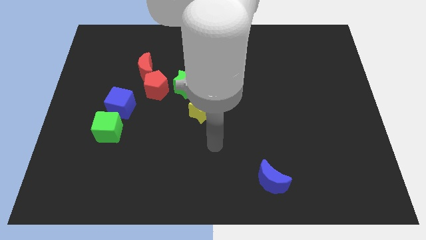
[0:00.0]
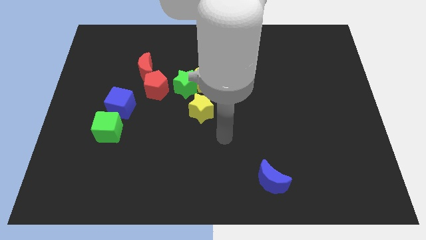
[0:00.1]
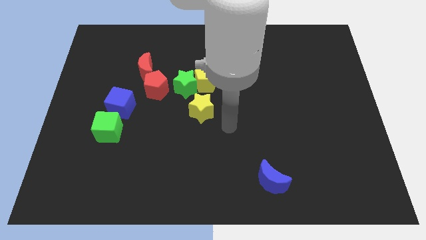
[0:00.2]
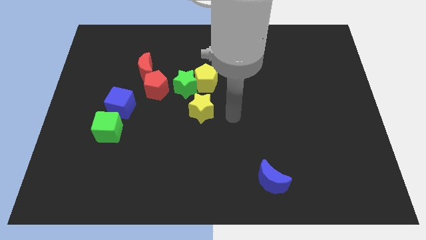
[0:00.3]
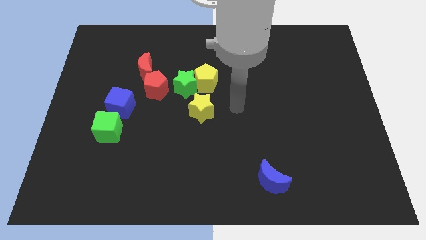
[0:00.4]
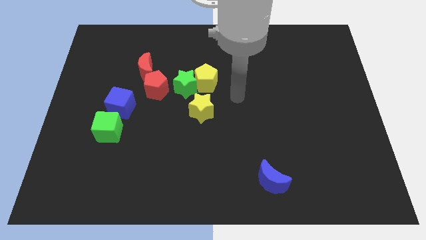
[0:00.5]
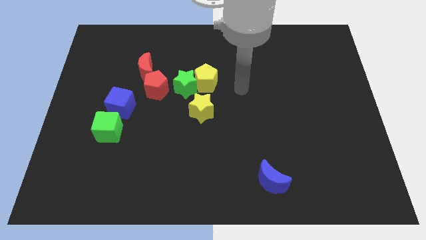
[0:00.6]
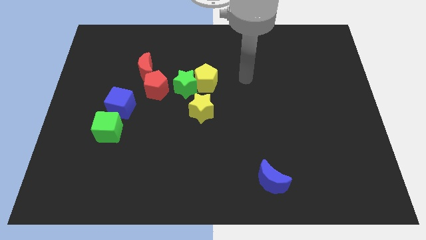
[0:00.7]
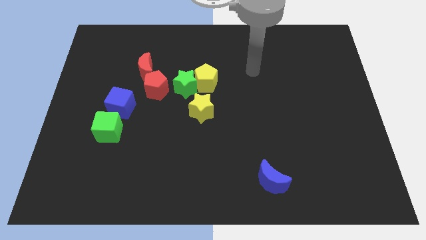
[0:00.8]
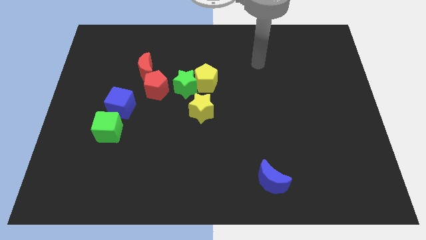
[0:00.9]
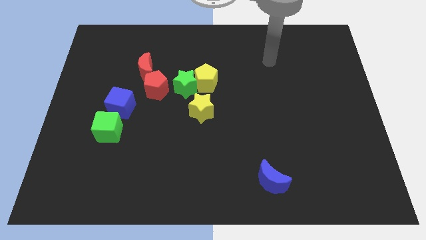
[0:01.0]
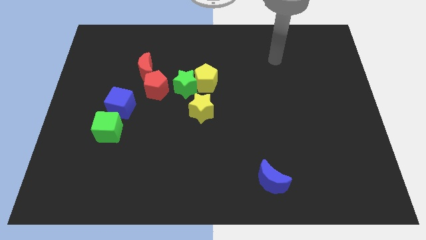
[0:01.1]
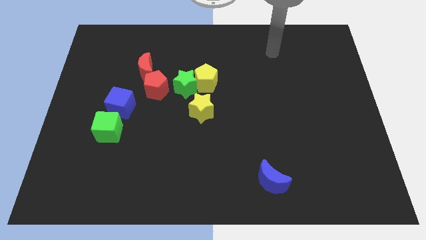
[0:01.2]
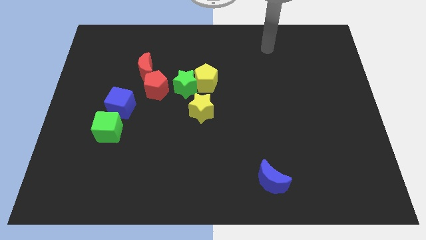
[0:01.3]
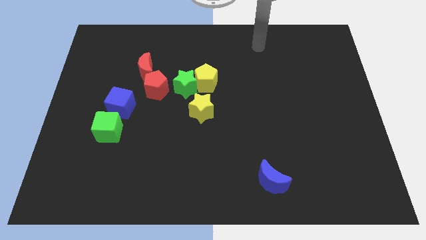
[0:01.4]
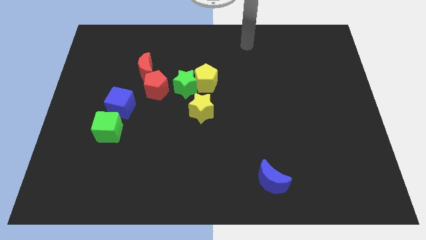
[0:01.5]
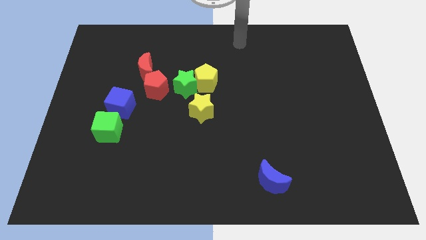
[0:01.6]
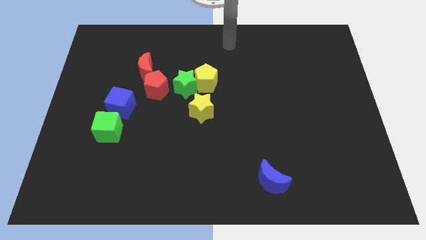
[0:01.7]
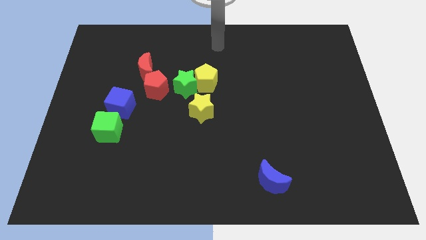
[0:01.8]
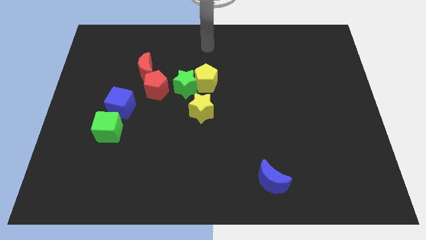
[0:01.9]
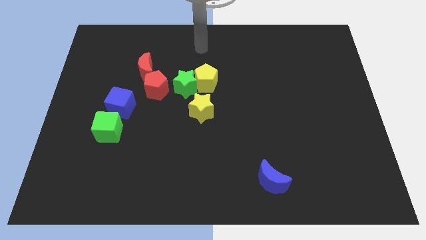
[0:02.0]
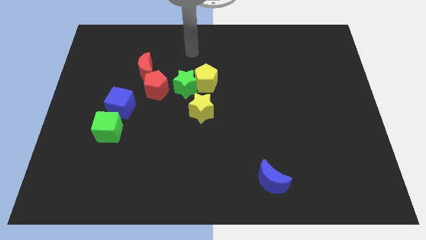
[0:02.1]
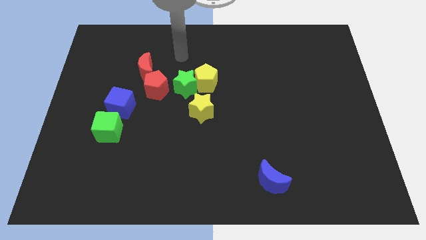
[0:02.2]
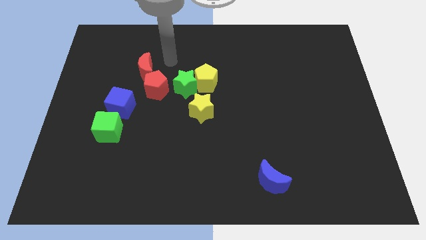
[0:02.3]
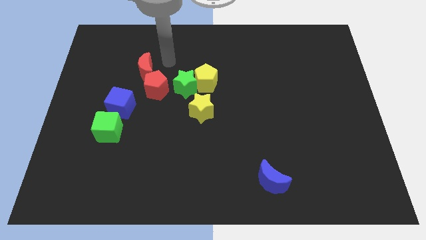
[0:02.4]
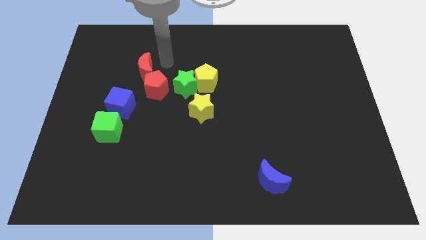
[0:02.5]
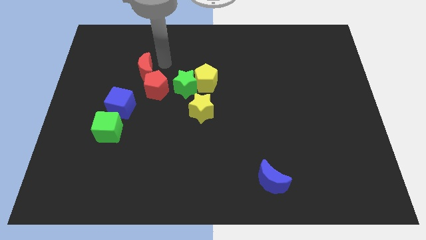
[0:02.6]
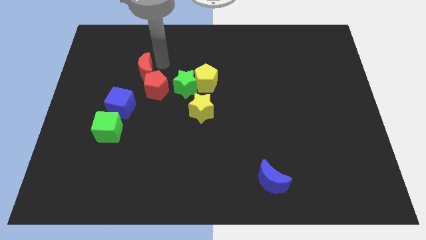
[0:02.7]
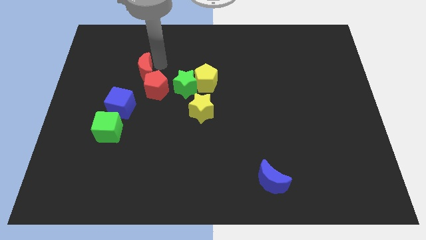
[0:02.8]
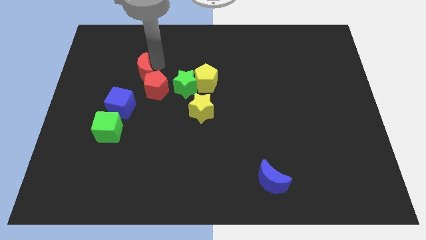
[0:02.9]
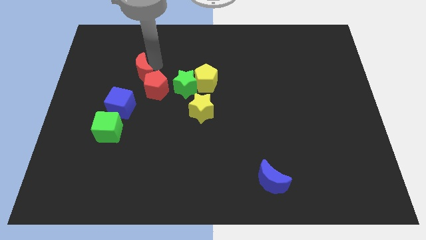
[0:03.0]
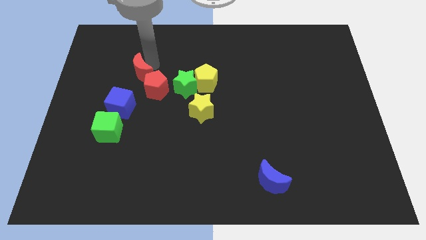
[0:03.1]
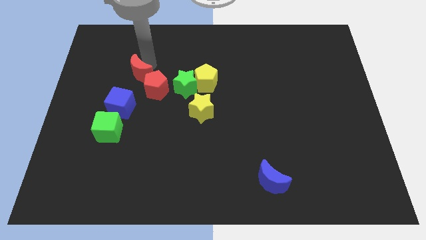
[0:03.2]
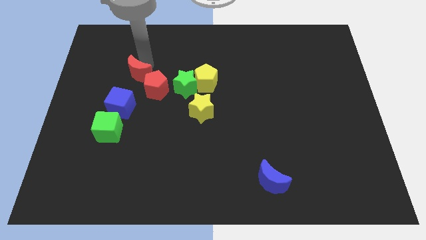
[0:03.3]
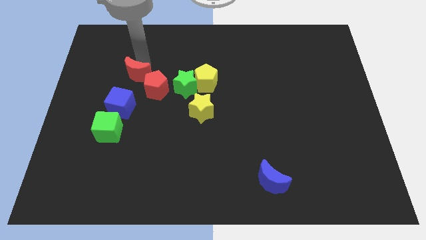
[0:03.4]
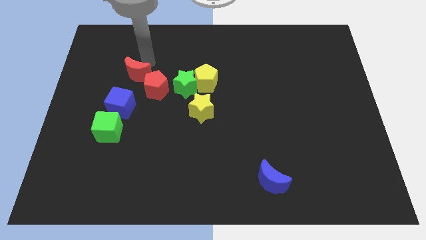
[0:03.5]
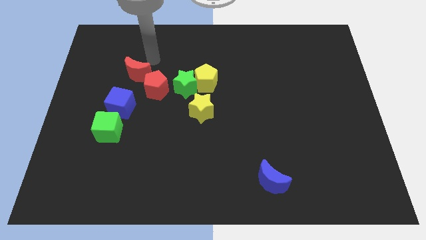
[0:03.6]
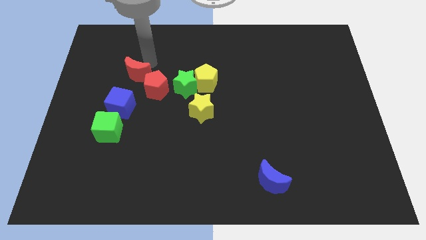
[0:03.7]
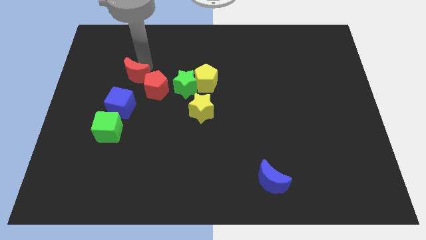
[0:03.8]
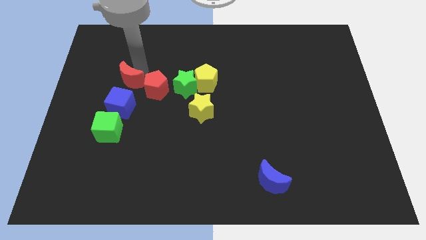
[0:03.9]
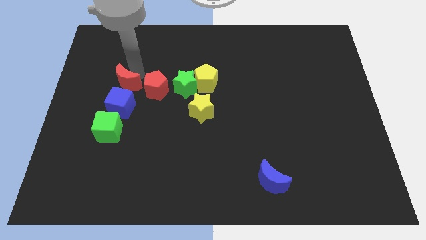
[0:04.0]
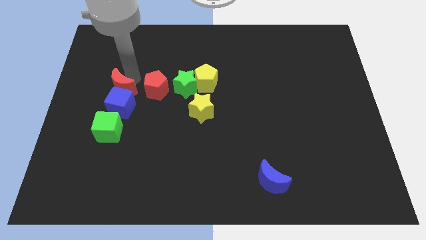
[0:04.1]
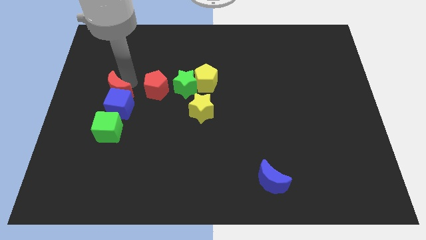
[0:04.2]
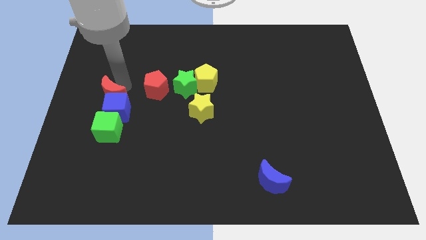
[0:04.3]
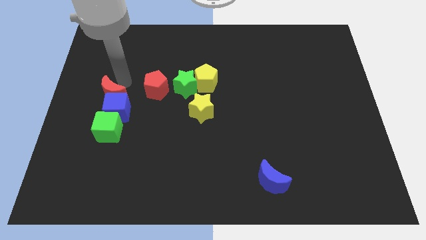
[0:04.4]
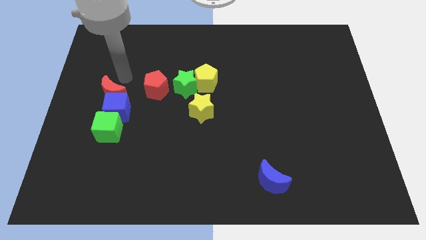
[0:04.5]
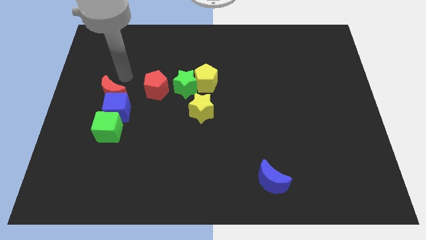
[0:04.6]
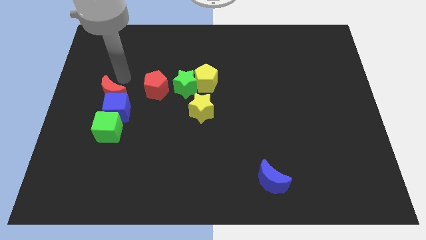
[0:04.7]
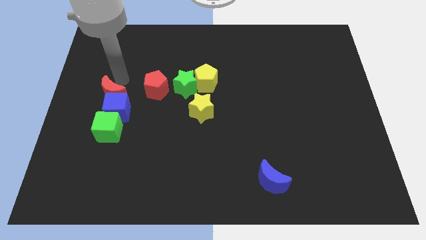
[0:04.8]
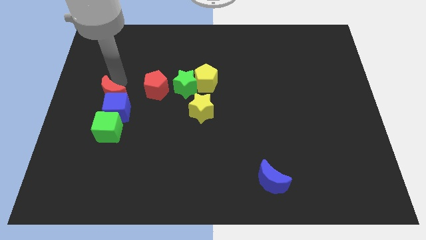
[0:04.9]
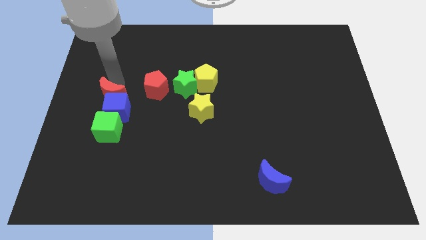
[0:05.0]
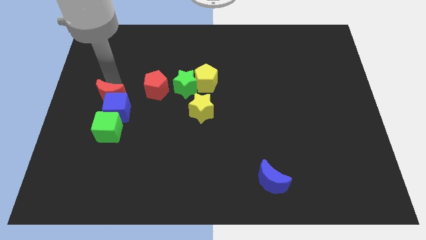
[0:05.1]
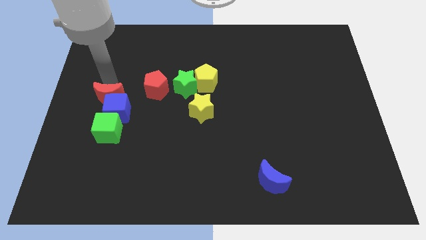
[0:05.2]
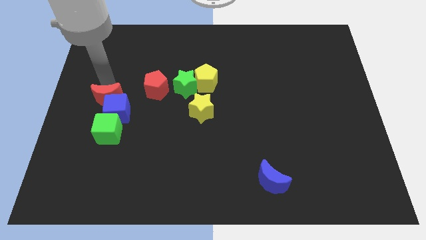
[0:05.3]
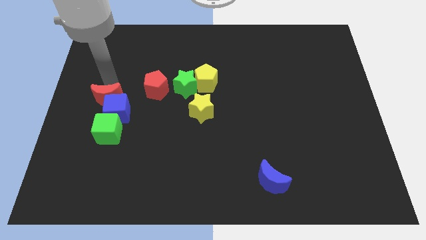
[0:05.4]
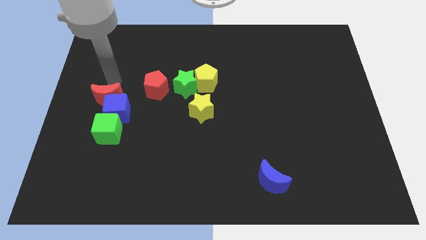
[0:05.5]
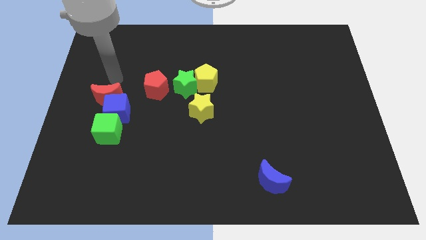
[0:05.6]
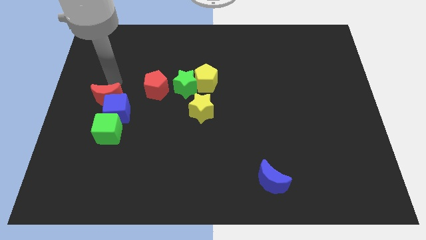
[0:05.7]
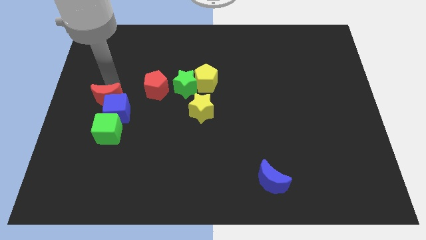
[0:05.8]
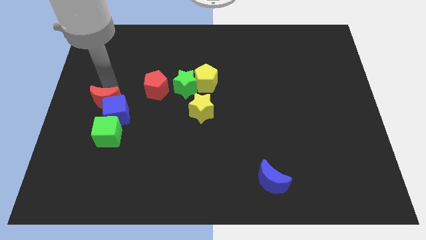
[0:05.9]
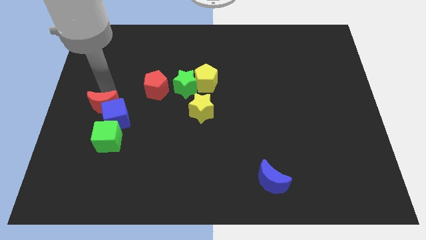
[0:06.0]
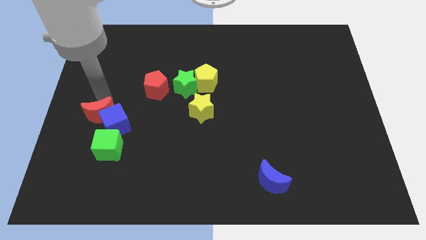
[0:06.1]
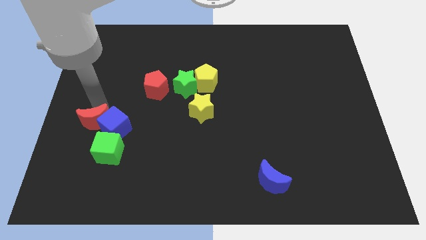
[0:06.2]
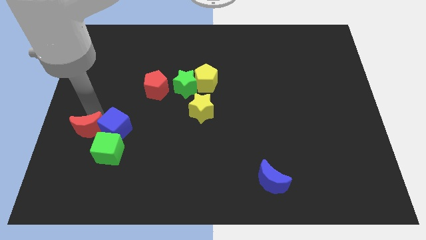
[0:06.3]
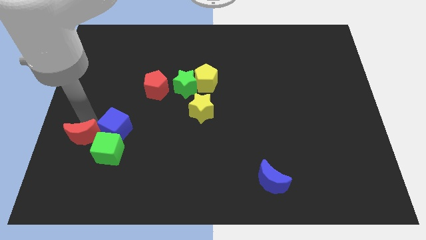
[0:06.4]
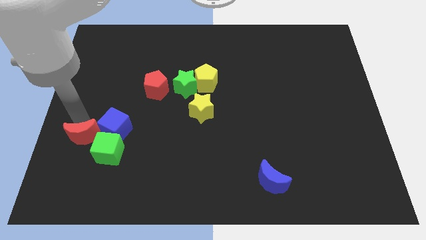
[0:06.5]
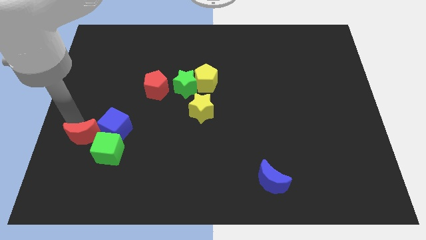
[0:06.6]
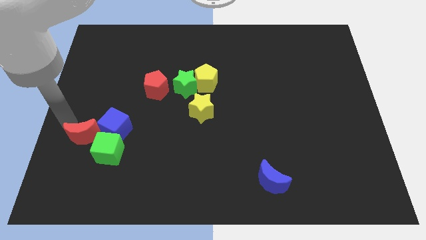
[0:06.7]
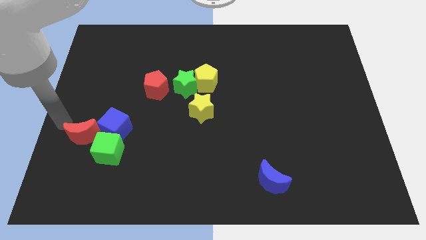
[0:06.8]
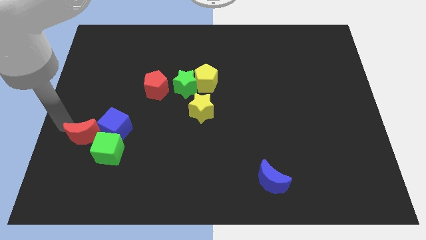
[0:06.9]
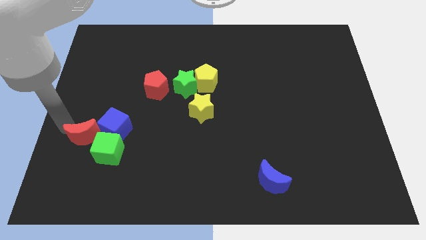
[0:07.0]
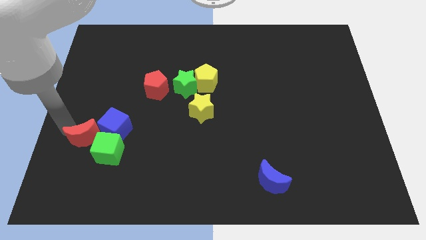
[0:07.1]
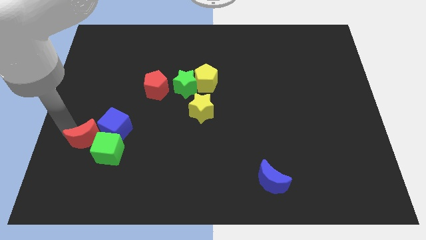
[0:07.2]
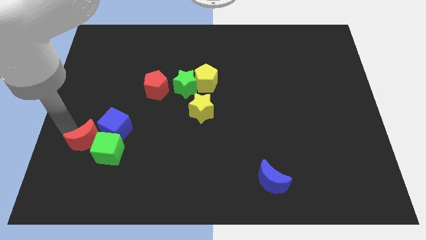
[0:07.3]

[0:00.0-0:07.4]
push the red moon towards the green cube
